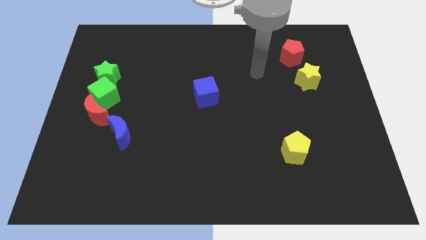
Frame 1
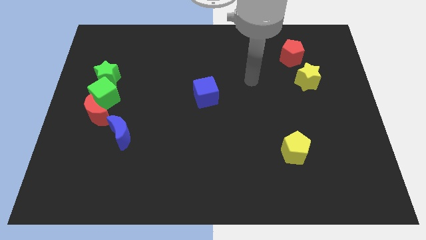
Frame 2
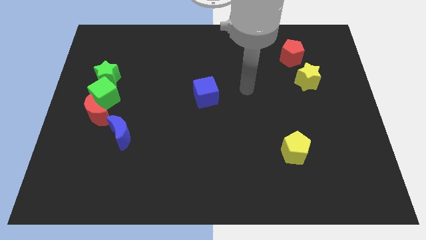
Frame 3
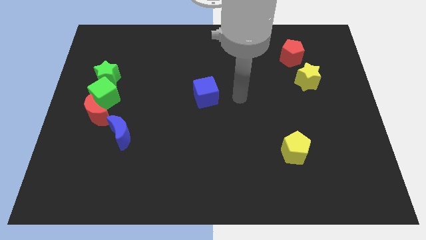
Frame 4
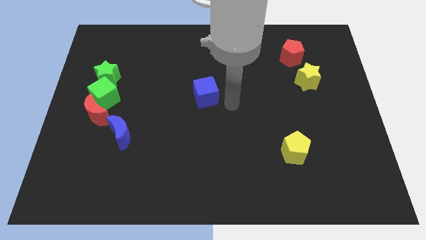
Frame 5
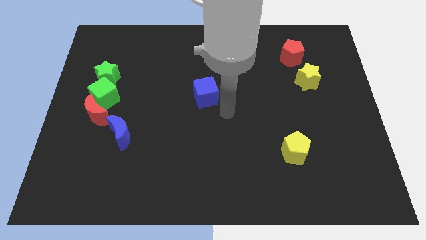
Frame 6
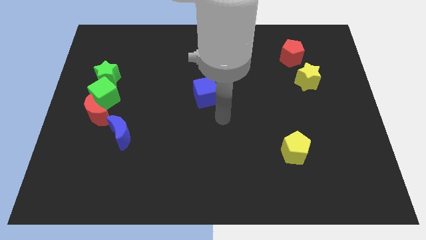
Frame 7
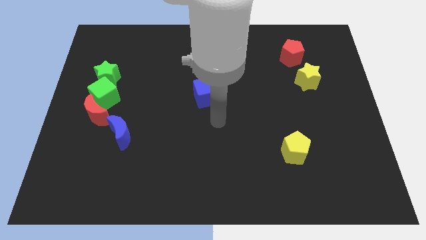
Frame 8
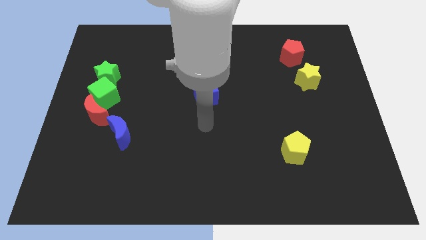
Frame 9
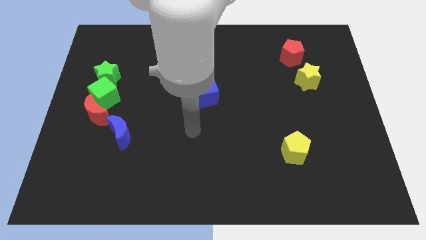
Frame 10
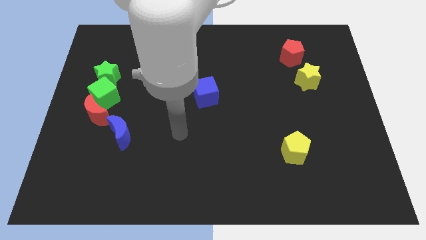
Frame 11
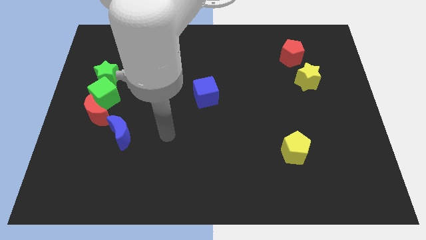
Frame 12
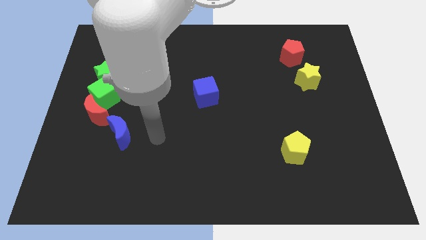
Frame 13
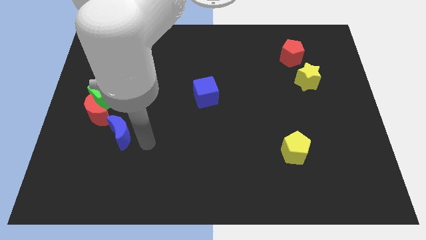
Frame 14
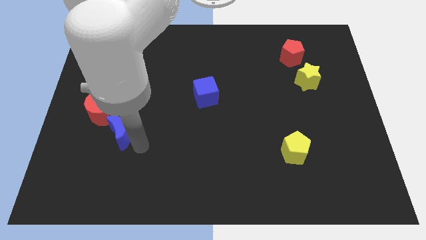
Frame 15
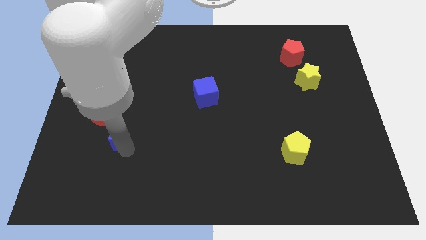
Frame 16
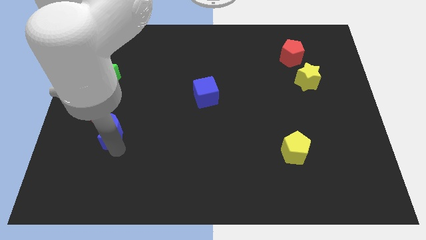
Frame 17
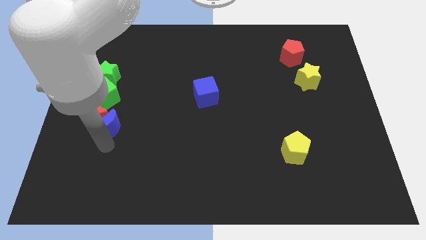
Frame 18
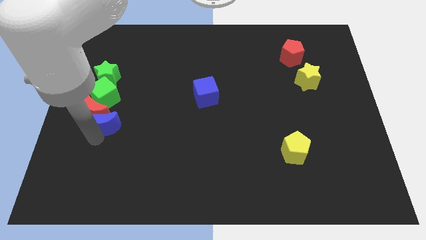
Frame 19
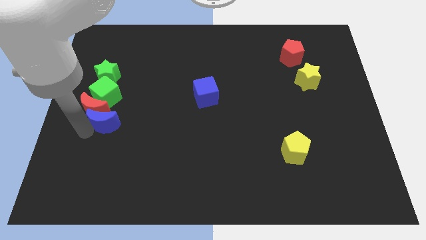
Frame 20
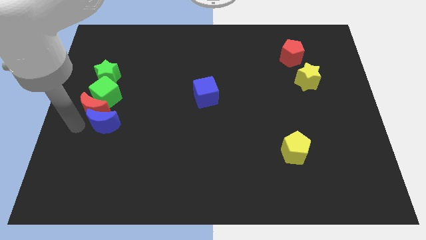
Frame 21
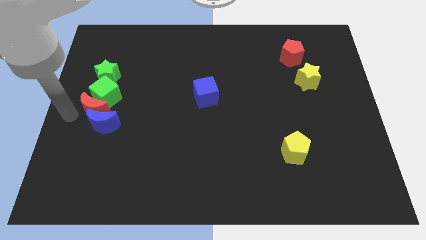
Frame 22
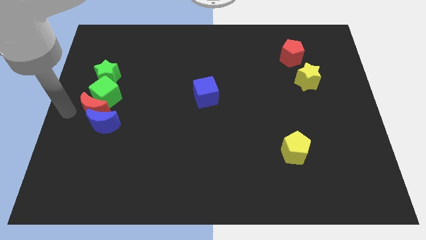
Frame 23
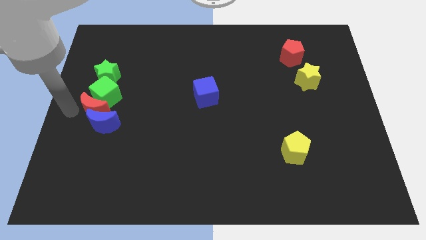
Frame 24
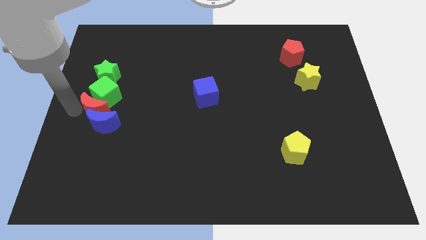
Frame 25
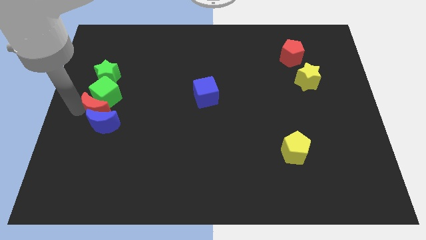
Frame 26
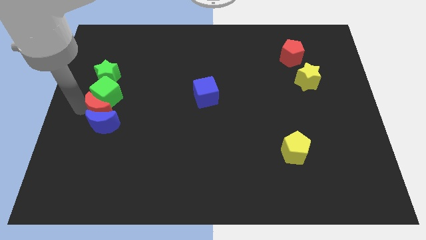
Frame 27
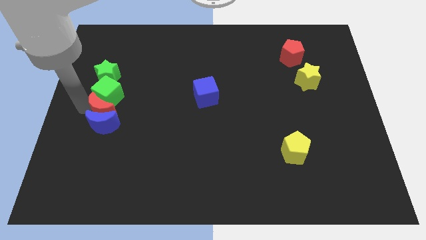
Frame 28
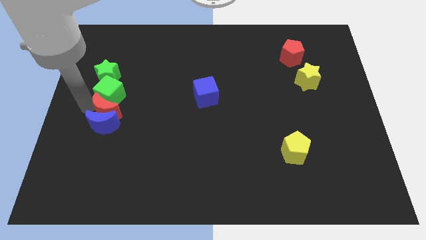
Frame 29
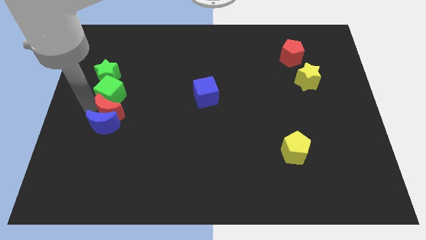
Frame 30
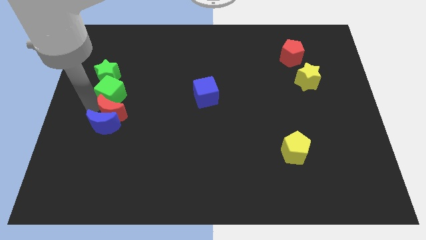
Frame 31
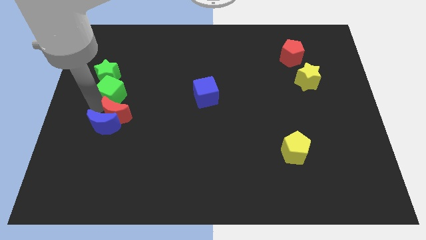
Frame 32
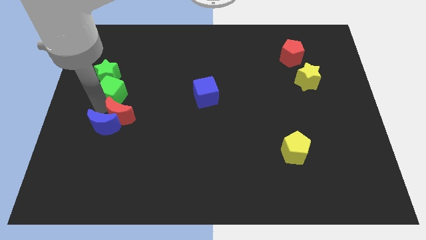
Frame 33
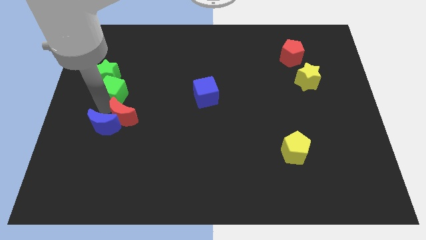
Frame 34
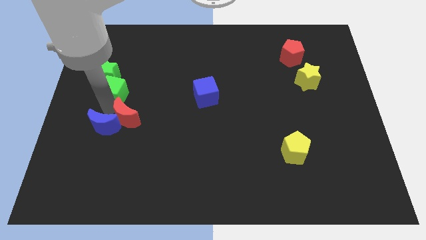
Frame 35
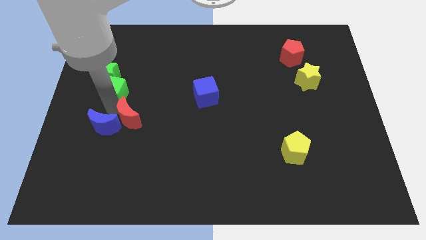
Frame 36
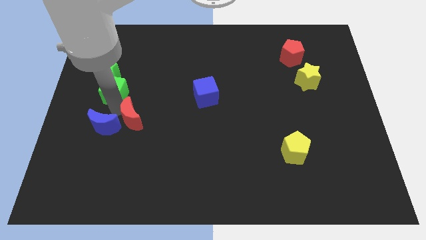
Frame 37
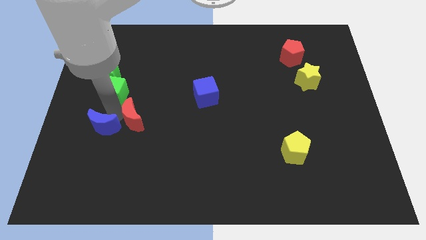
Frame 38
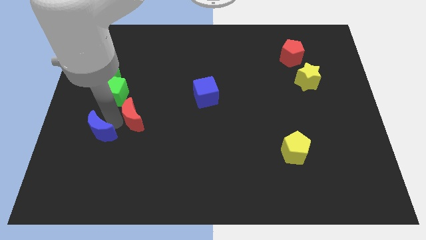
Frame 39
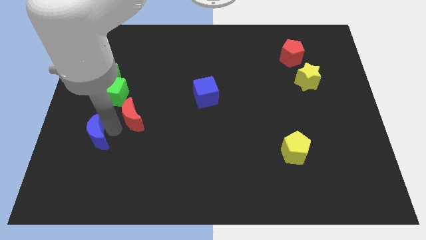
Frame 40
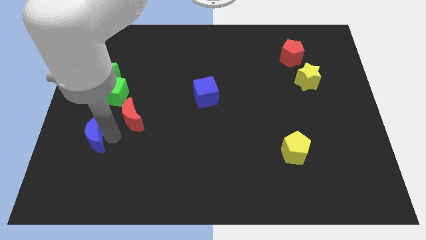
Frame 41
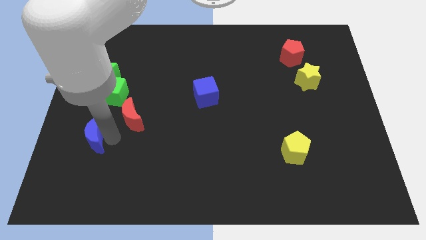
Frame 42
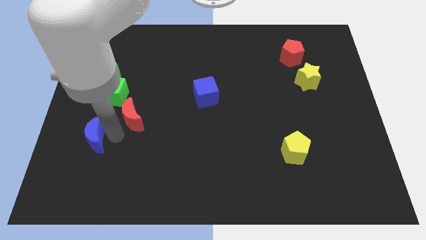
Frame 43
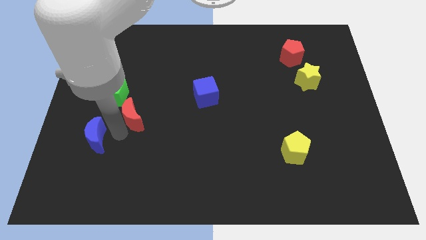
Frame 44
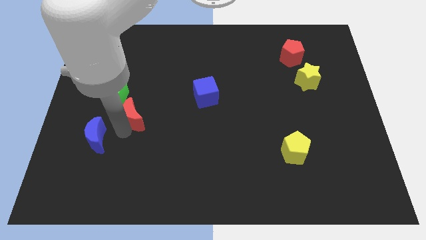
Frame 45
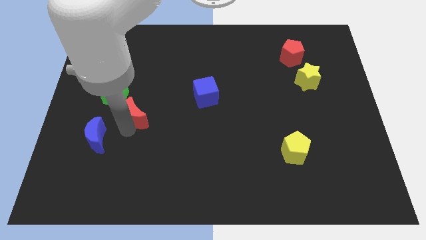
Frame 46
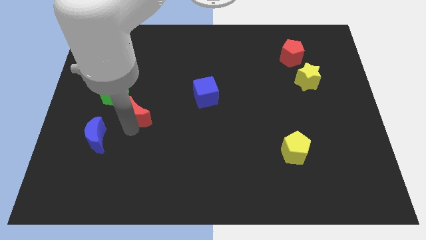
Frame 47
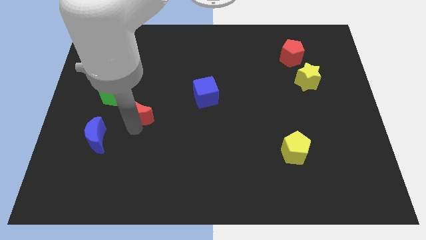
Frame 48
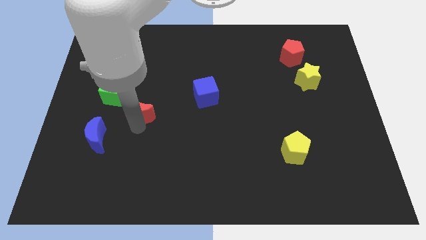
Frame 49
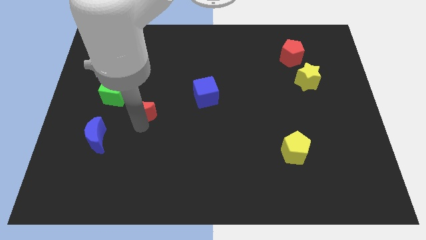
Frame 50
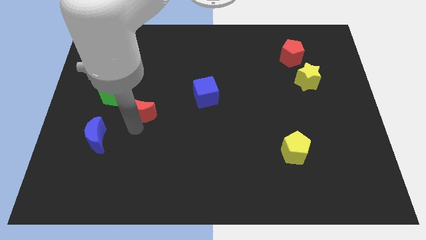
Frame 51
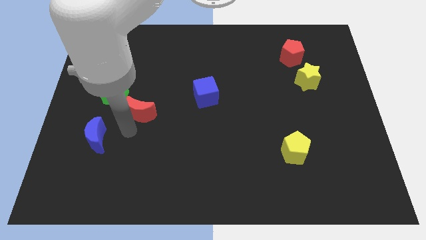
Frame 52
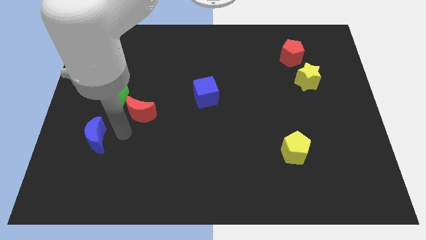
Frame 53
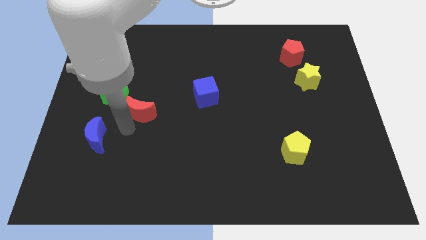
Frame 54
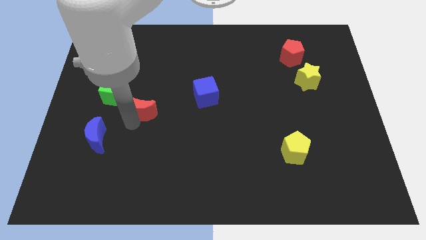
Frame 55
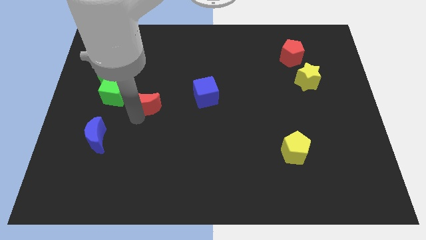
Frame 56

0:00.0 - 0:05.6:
put the red moon right of the green cube

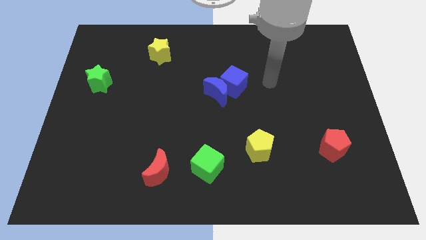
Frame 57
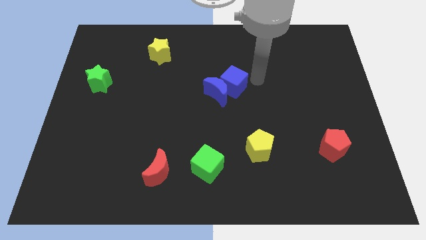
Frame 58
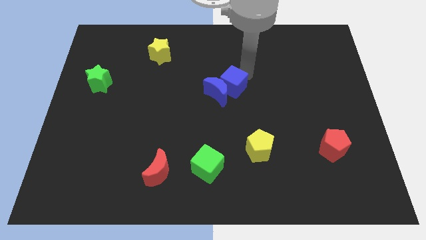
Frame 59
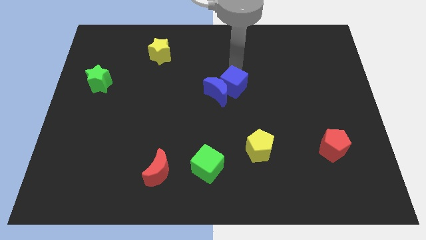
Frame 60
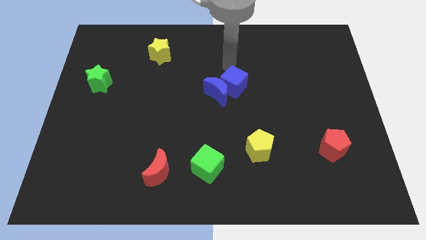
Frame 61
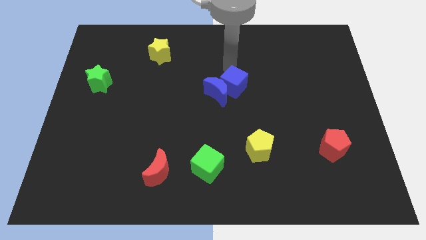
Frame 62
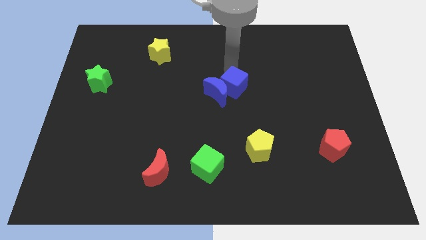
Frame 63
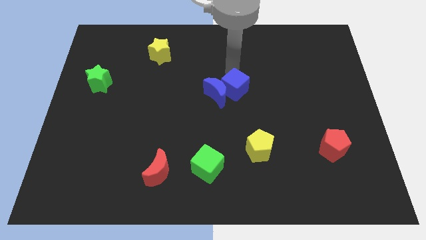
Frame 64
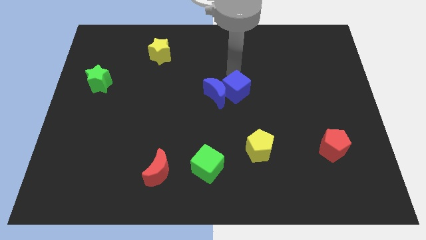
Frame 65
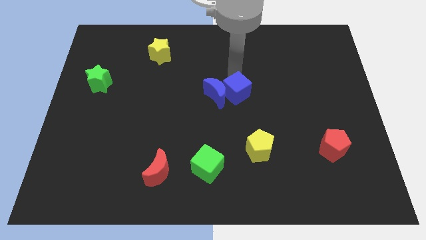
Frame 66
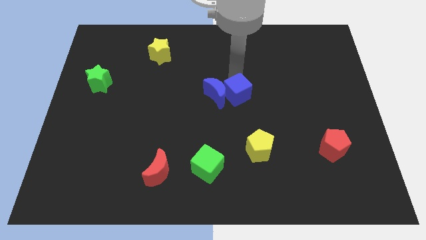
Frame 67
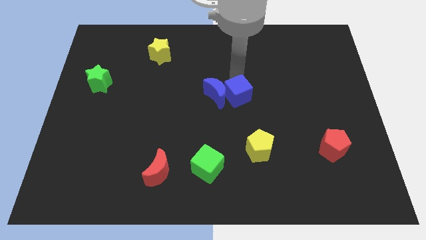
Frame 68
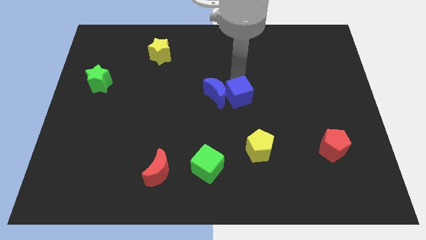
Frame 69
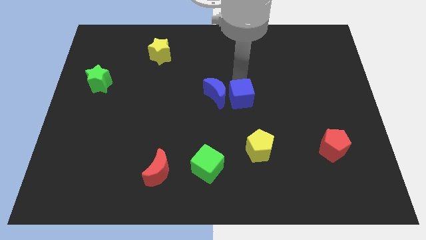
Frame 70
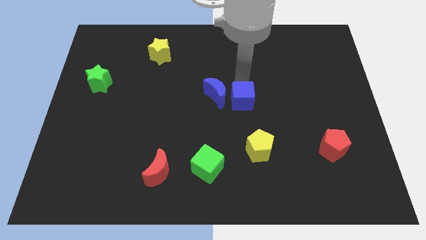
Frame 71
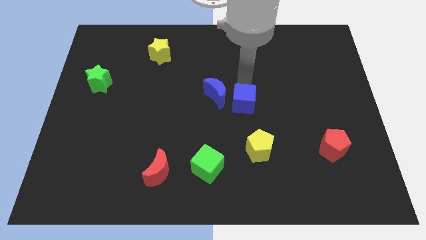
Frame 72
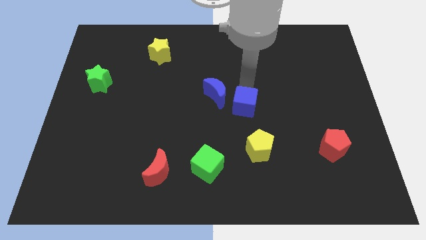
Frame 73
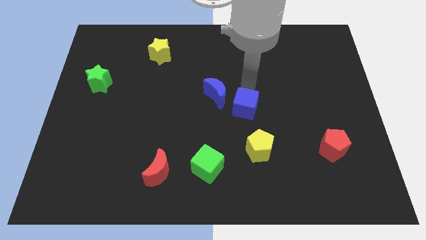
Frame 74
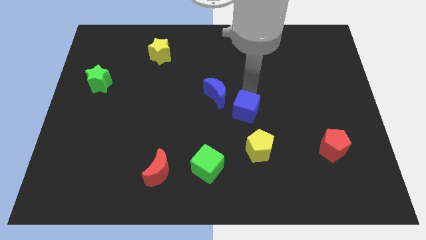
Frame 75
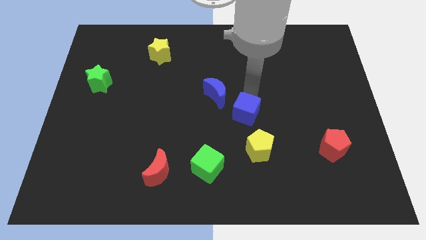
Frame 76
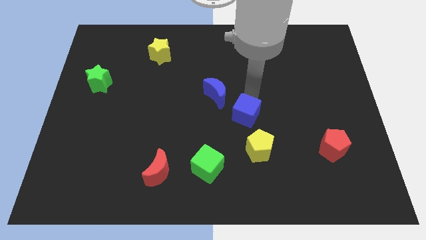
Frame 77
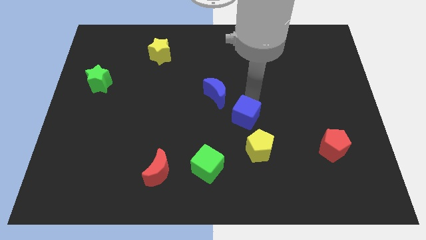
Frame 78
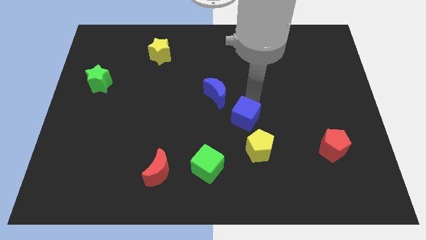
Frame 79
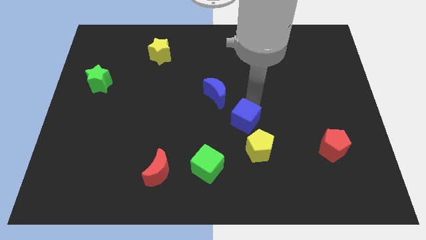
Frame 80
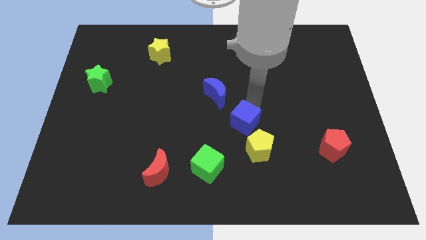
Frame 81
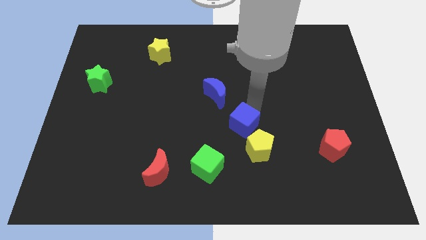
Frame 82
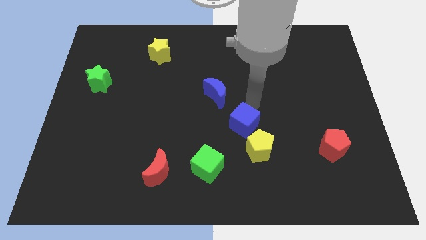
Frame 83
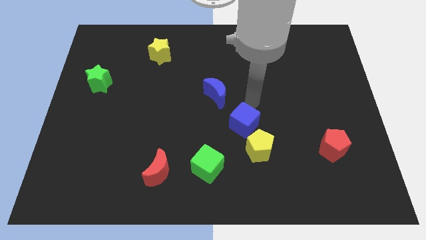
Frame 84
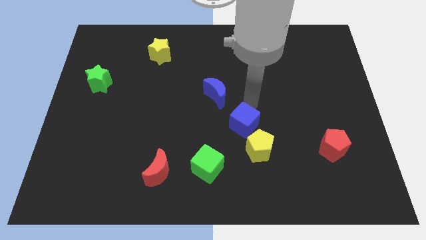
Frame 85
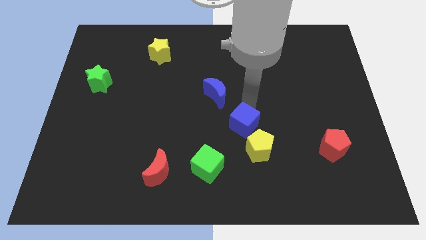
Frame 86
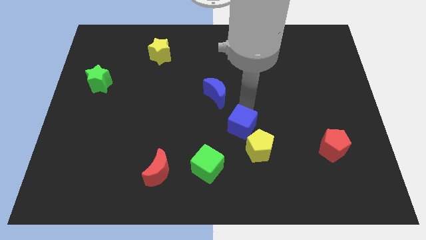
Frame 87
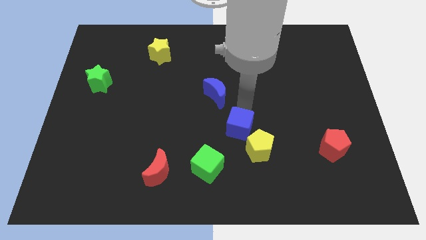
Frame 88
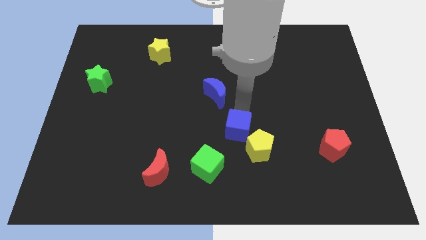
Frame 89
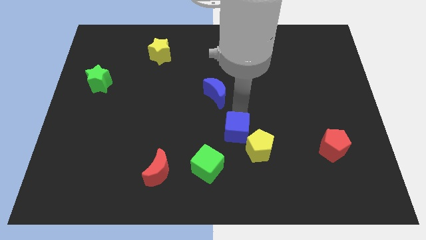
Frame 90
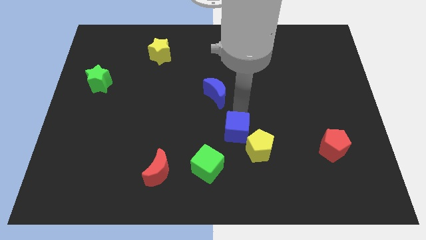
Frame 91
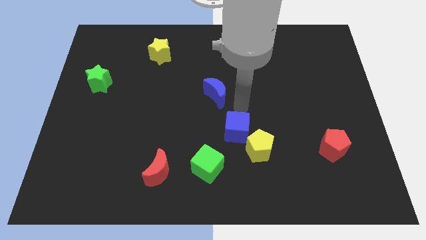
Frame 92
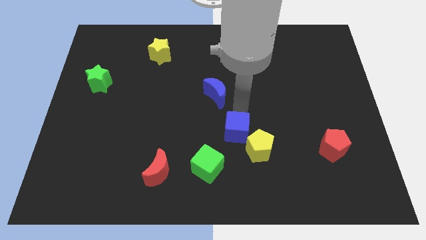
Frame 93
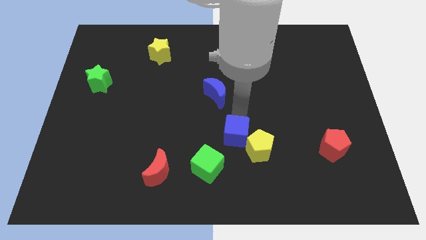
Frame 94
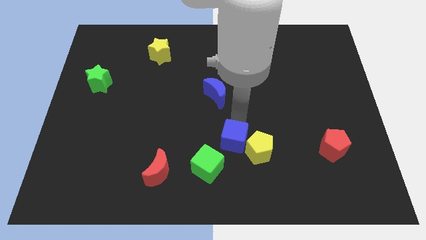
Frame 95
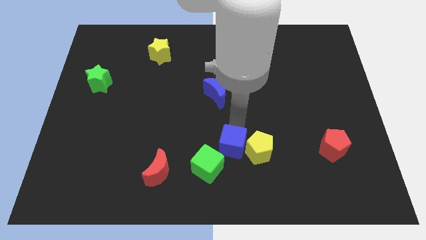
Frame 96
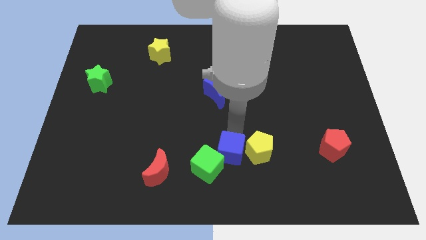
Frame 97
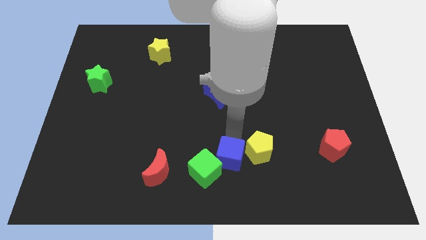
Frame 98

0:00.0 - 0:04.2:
slide the blue cube just right of the red moon
